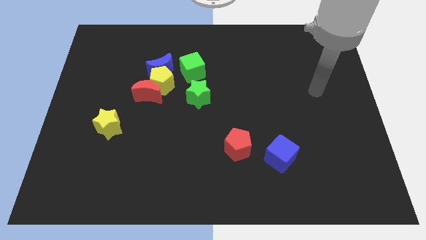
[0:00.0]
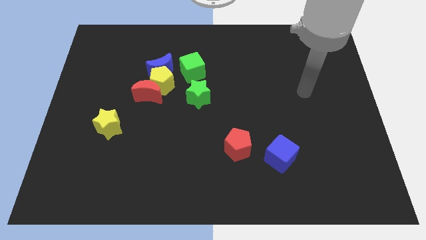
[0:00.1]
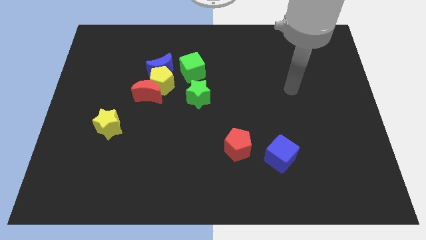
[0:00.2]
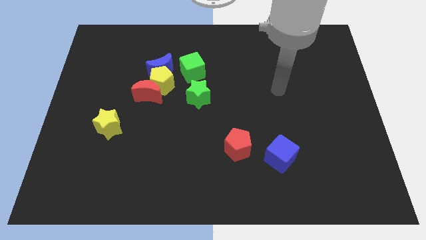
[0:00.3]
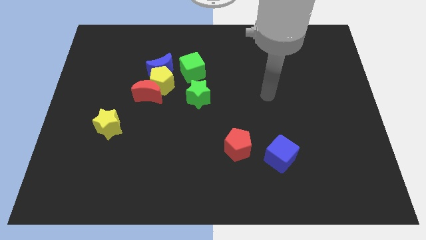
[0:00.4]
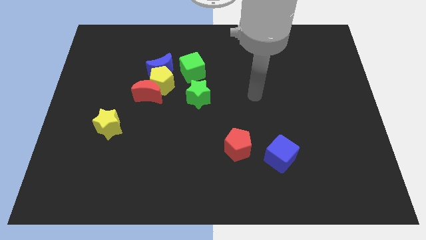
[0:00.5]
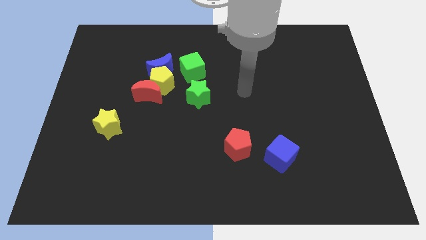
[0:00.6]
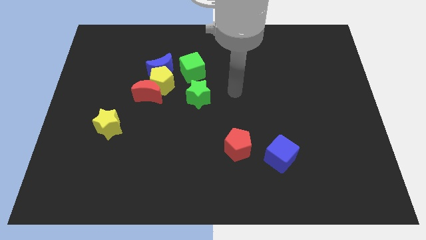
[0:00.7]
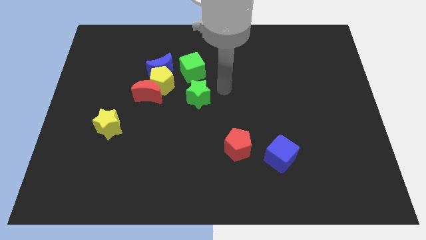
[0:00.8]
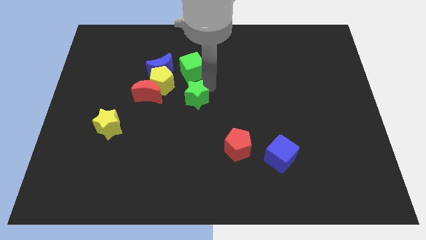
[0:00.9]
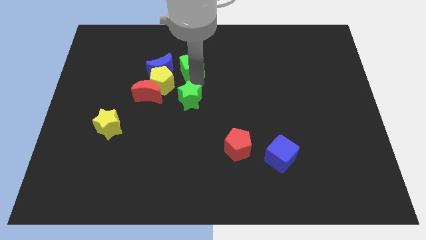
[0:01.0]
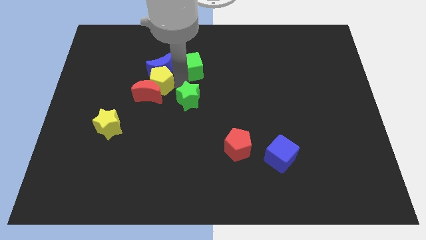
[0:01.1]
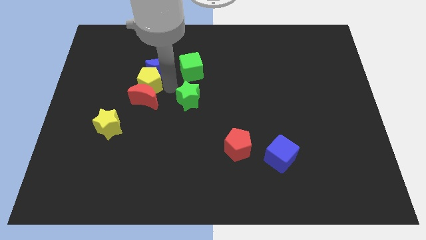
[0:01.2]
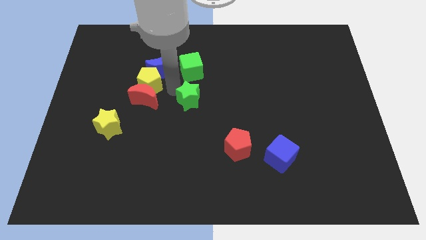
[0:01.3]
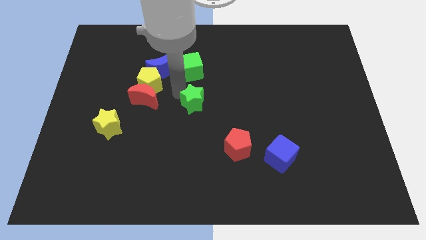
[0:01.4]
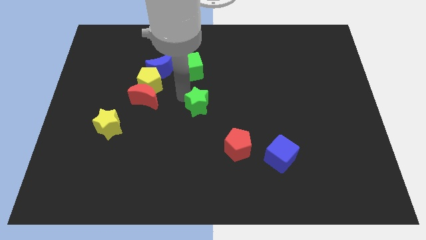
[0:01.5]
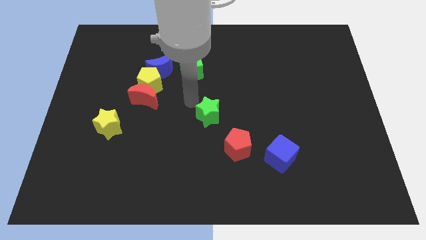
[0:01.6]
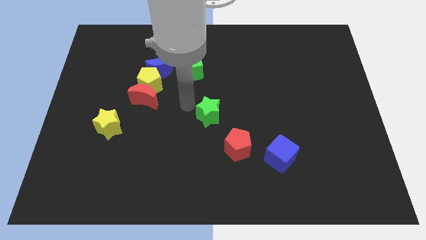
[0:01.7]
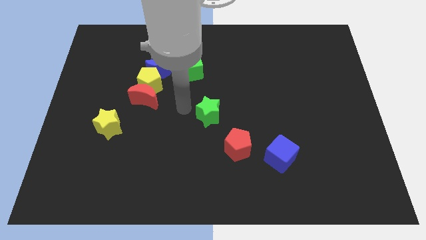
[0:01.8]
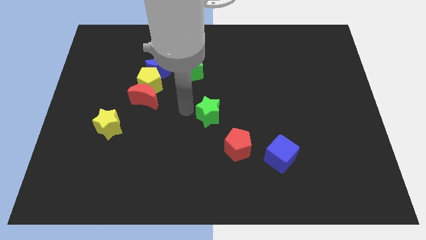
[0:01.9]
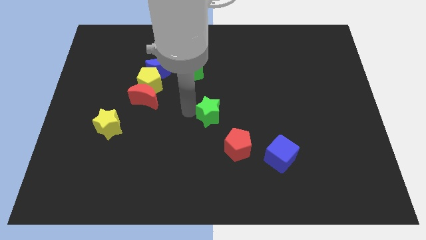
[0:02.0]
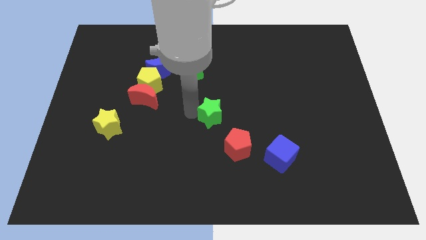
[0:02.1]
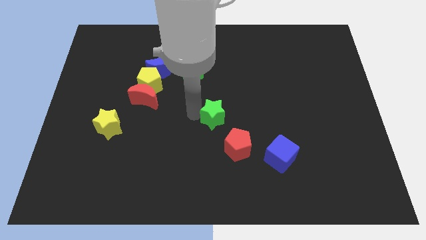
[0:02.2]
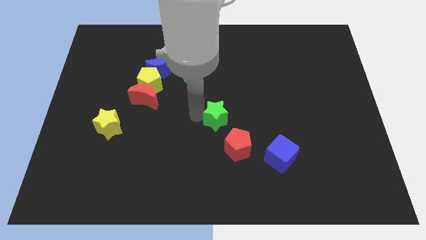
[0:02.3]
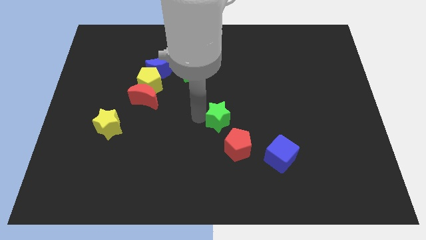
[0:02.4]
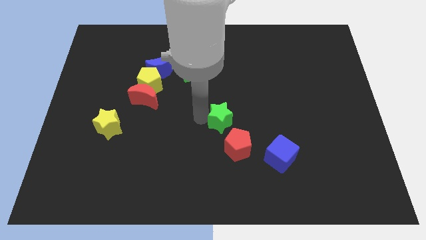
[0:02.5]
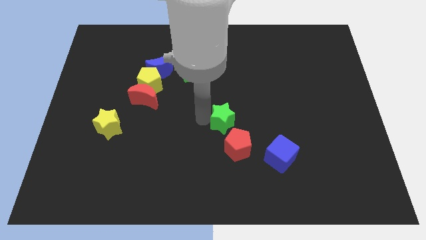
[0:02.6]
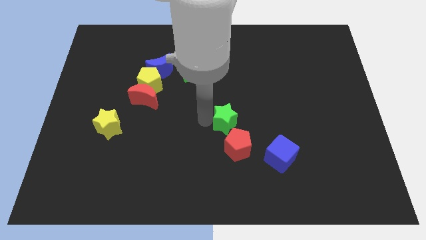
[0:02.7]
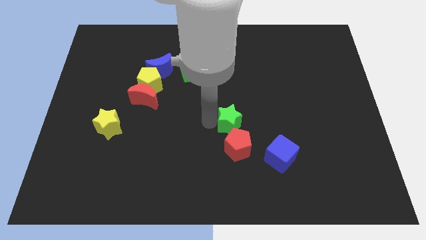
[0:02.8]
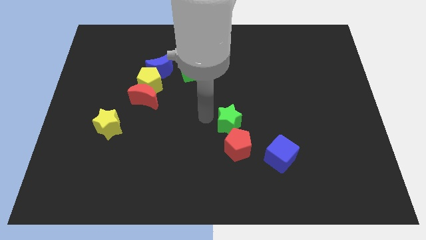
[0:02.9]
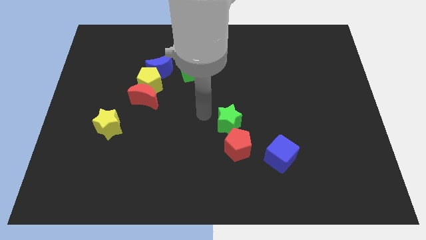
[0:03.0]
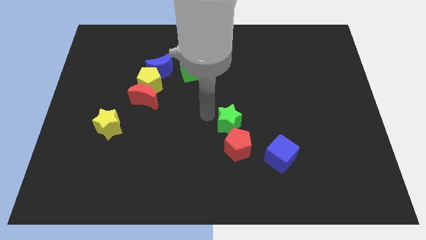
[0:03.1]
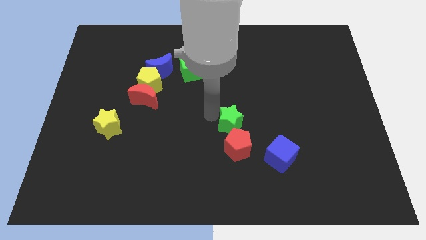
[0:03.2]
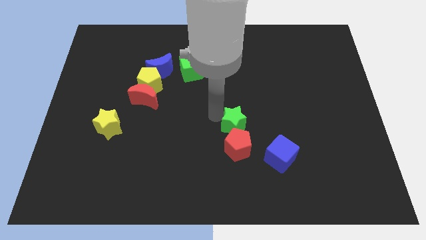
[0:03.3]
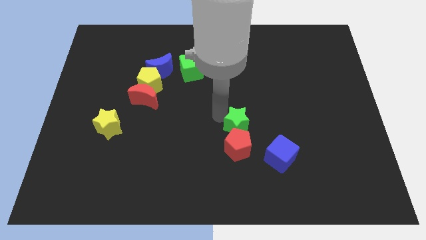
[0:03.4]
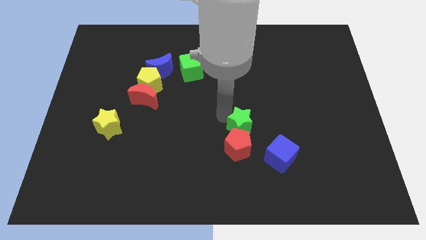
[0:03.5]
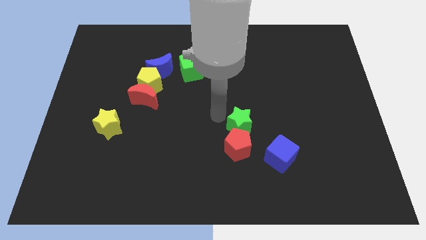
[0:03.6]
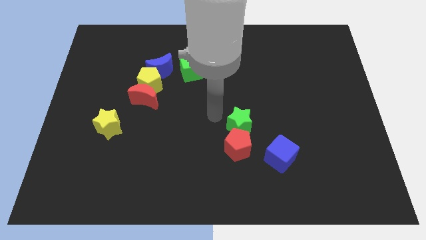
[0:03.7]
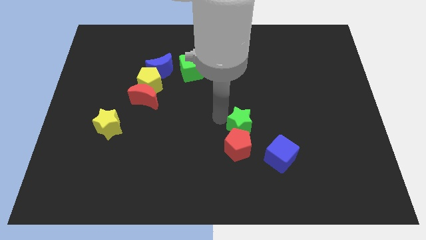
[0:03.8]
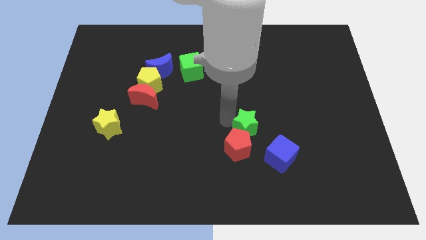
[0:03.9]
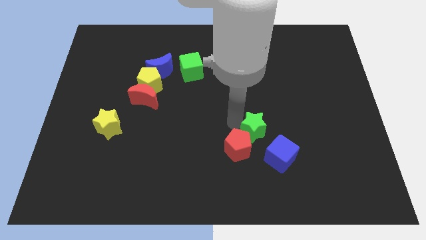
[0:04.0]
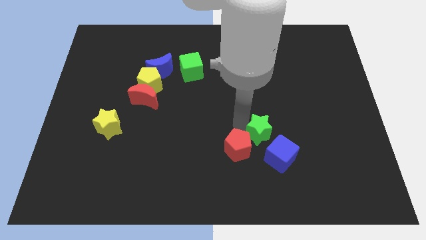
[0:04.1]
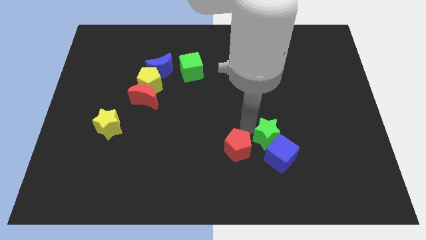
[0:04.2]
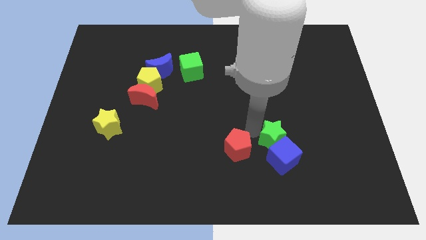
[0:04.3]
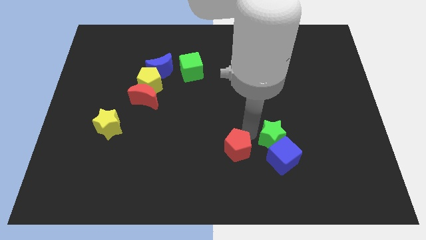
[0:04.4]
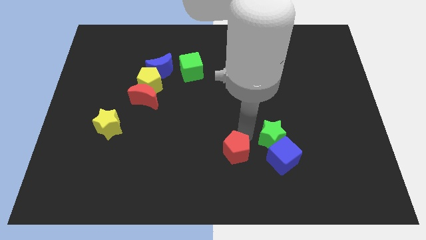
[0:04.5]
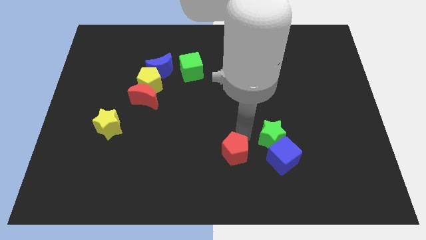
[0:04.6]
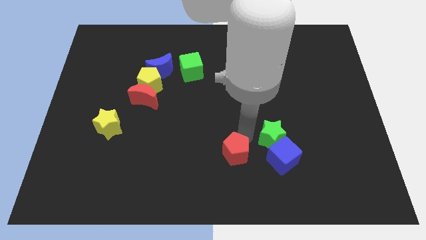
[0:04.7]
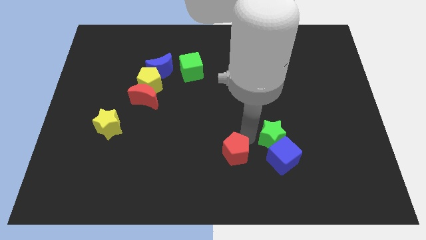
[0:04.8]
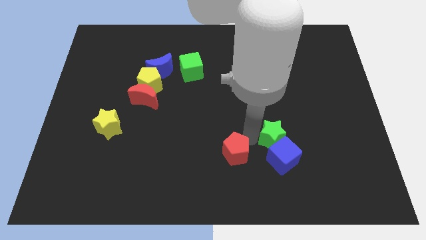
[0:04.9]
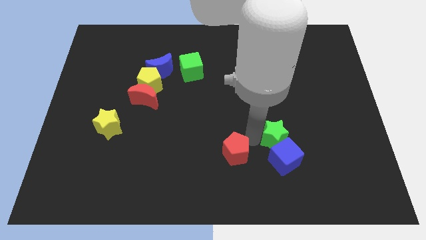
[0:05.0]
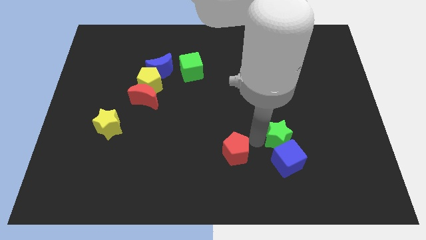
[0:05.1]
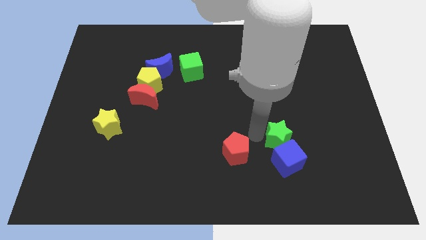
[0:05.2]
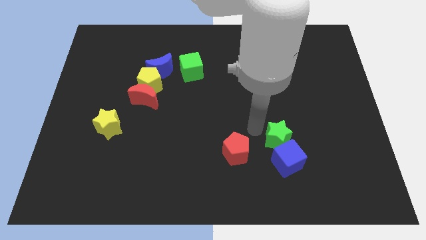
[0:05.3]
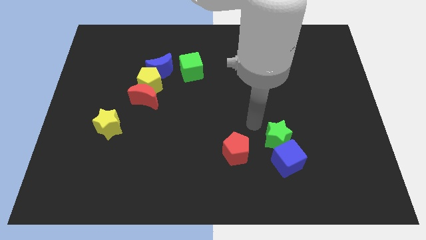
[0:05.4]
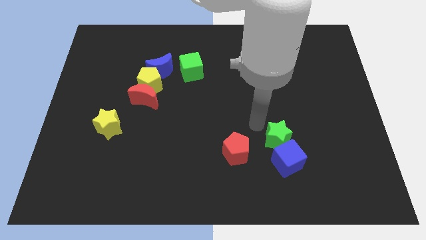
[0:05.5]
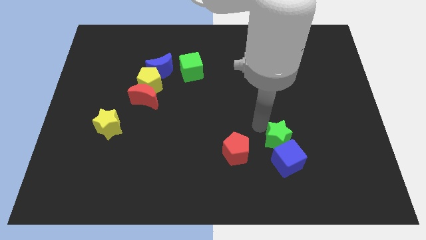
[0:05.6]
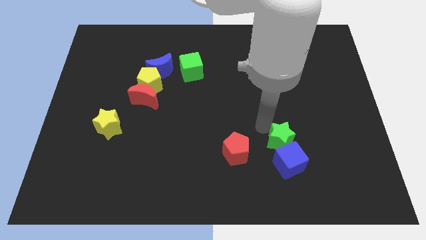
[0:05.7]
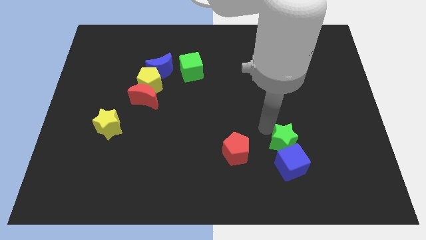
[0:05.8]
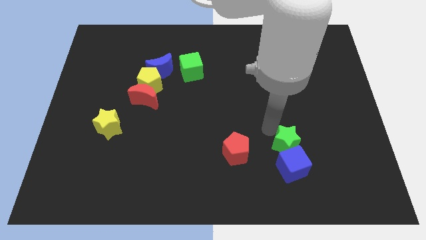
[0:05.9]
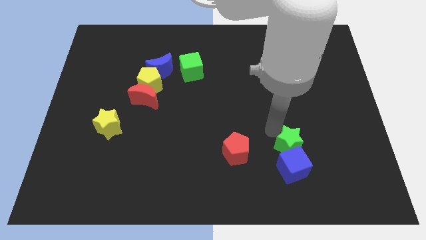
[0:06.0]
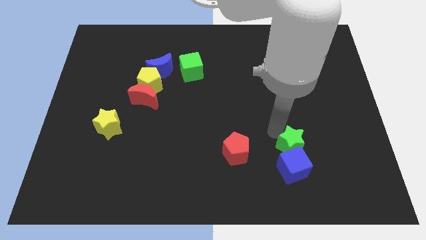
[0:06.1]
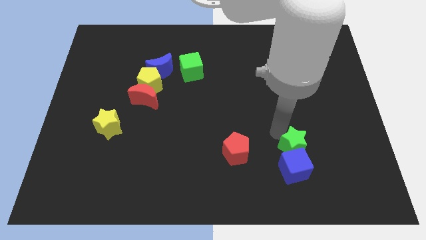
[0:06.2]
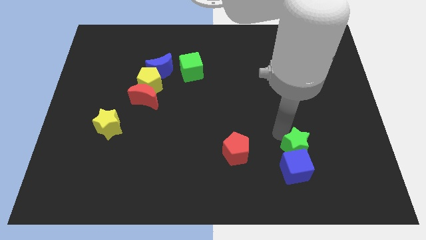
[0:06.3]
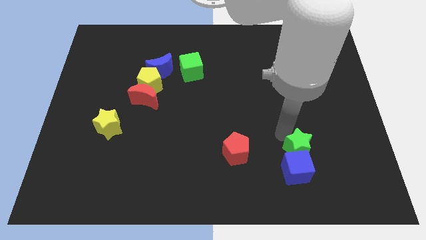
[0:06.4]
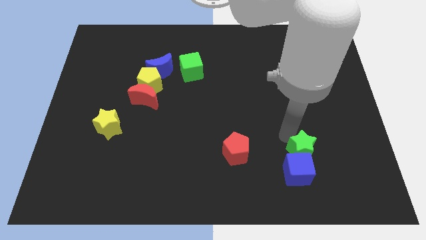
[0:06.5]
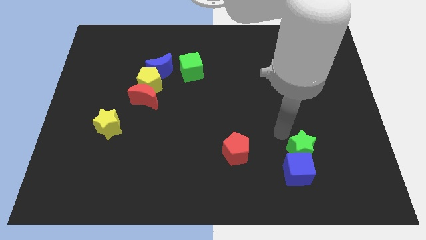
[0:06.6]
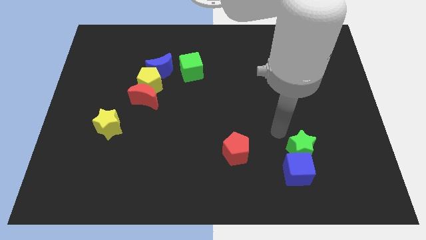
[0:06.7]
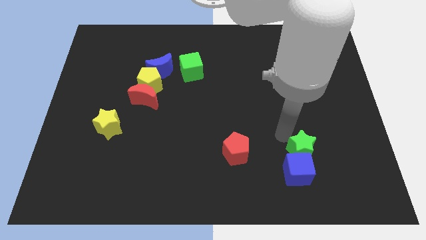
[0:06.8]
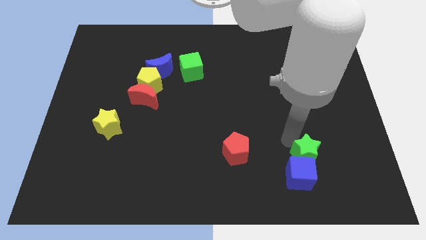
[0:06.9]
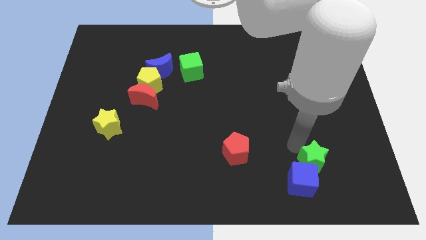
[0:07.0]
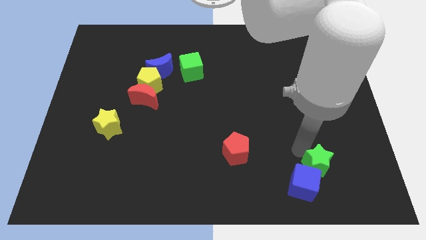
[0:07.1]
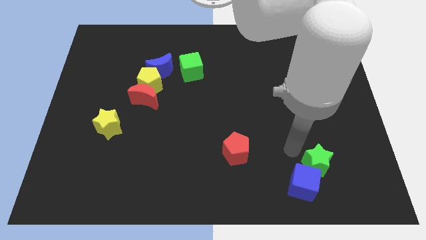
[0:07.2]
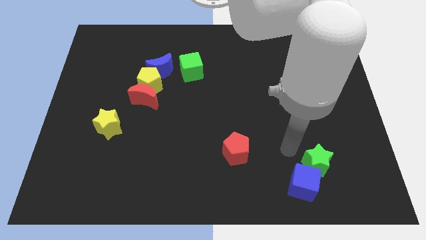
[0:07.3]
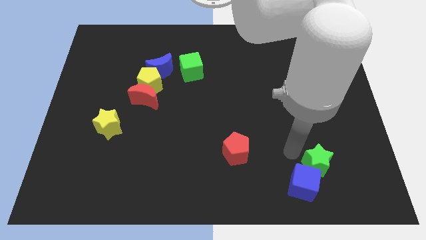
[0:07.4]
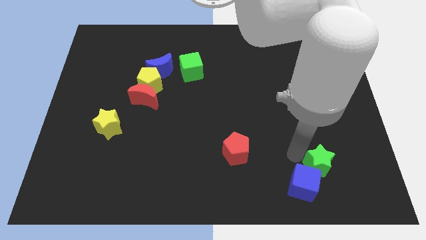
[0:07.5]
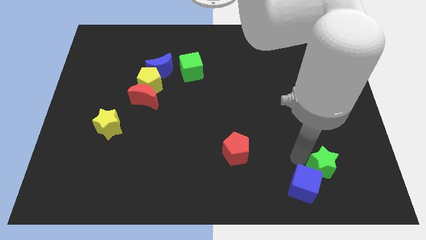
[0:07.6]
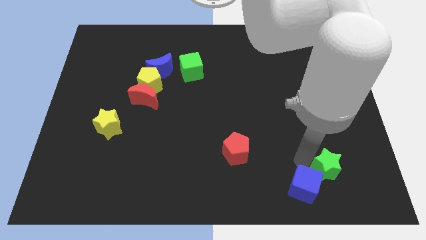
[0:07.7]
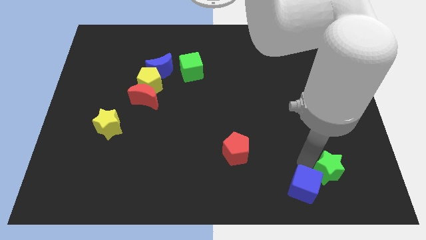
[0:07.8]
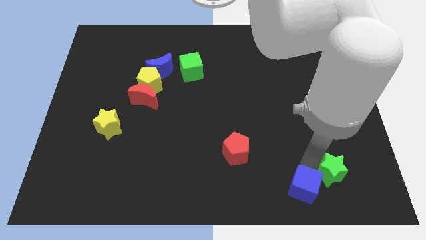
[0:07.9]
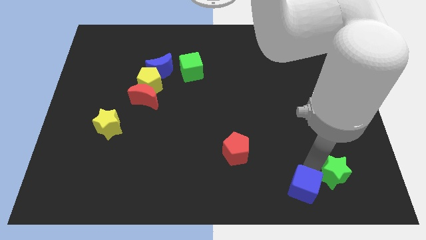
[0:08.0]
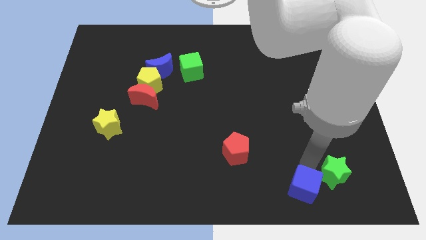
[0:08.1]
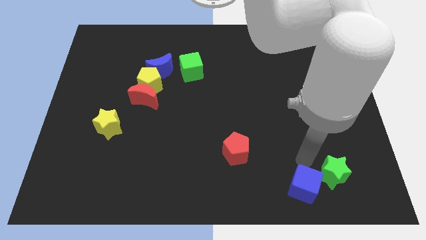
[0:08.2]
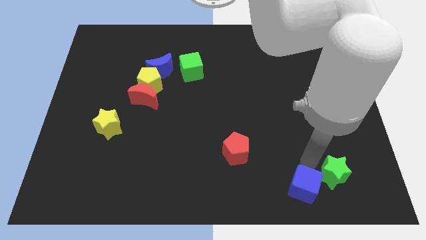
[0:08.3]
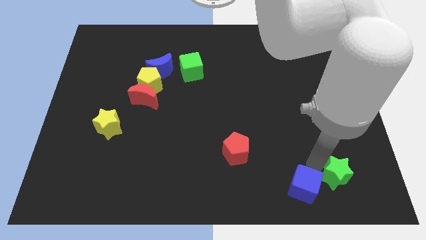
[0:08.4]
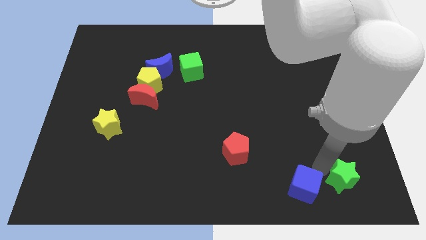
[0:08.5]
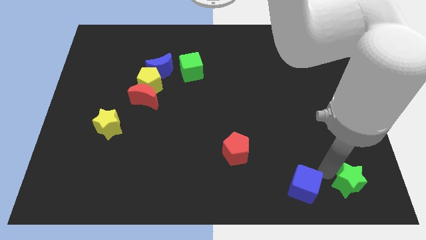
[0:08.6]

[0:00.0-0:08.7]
push the green star to the lower right corner
